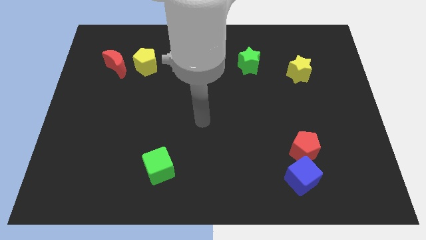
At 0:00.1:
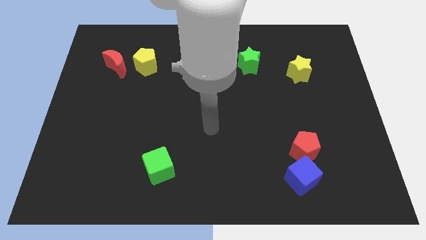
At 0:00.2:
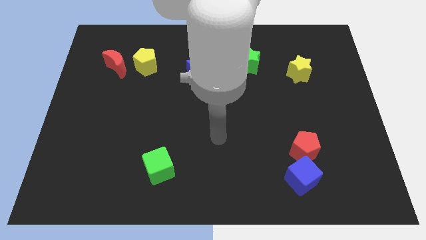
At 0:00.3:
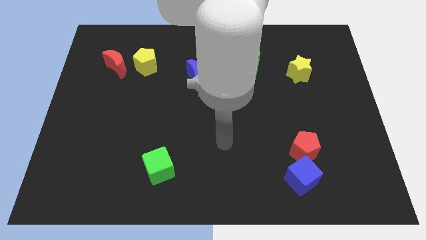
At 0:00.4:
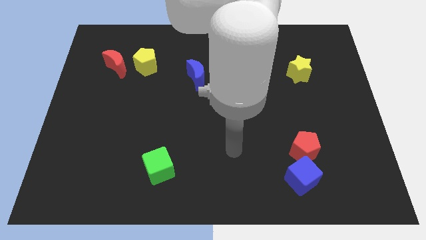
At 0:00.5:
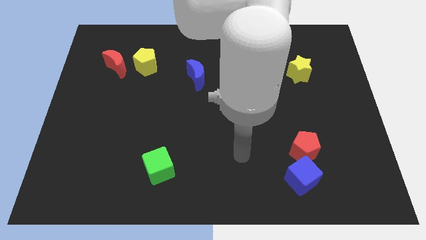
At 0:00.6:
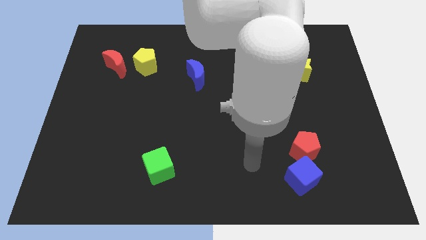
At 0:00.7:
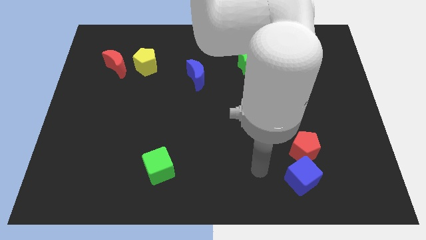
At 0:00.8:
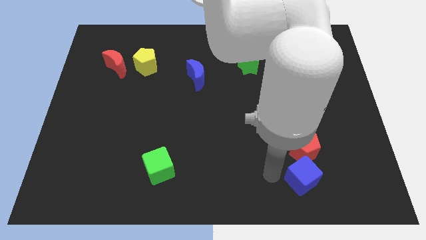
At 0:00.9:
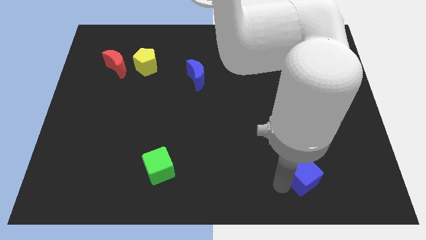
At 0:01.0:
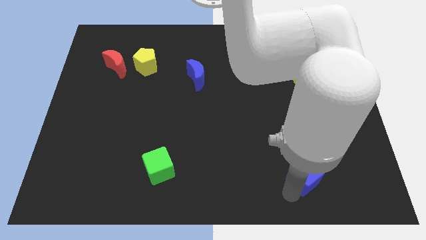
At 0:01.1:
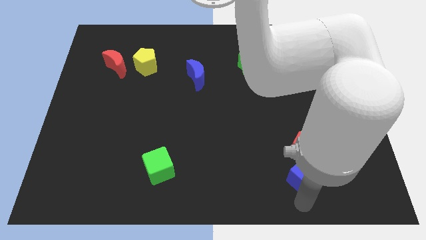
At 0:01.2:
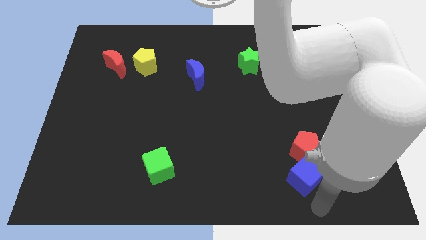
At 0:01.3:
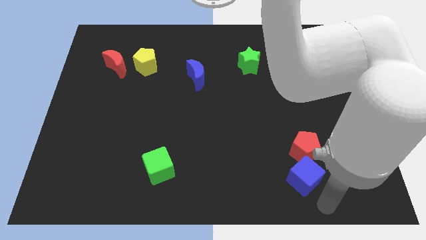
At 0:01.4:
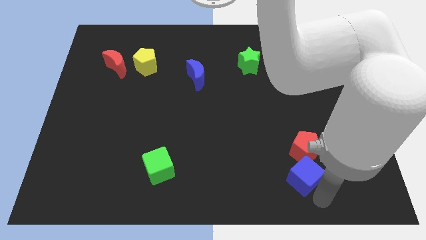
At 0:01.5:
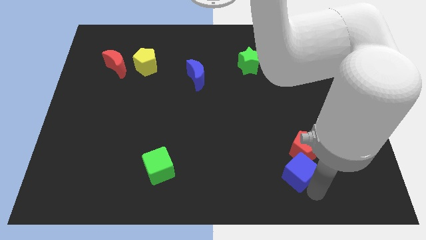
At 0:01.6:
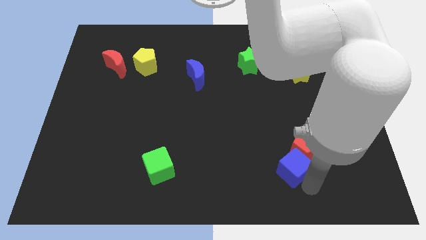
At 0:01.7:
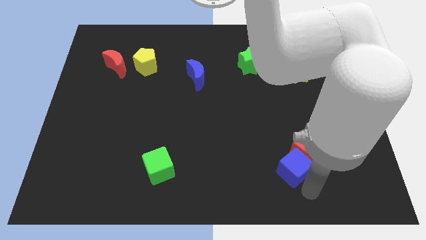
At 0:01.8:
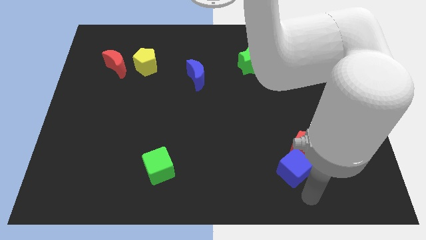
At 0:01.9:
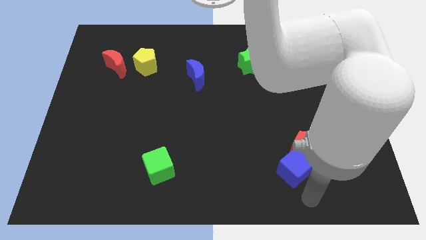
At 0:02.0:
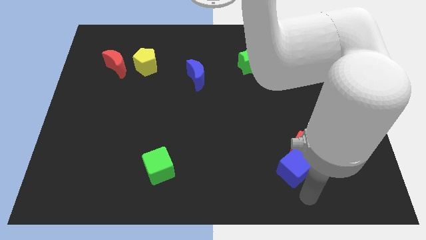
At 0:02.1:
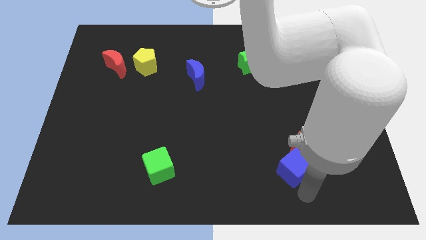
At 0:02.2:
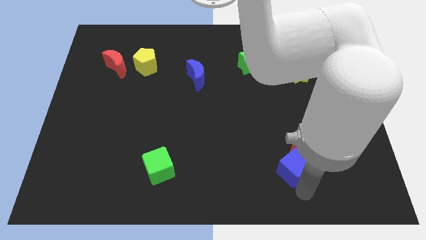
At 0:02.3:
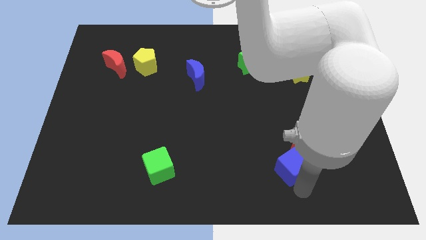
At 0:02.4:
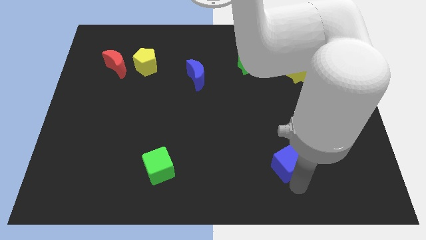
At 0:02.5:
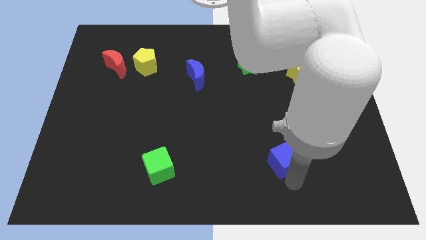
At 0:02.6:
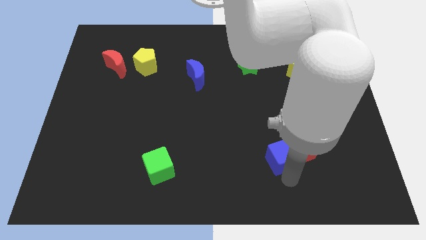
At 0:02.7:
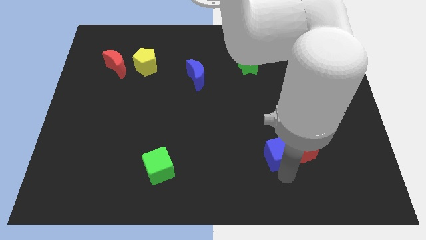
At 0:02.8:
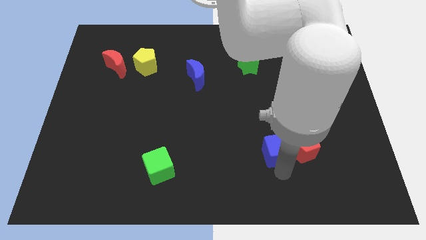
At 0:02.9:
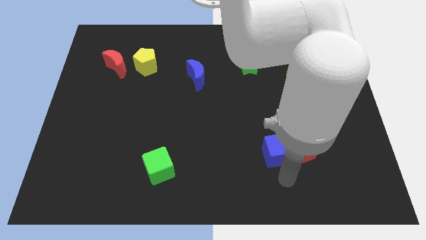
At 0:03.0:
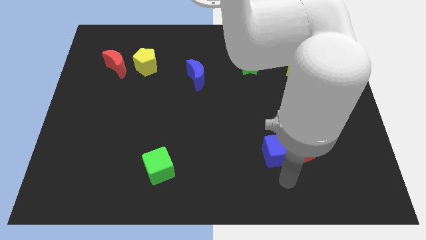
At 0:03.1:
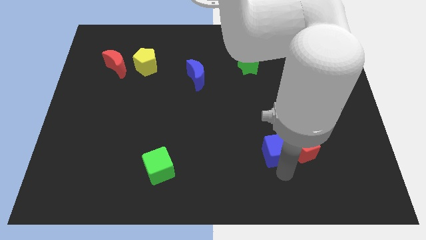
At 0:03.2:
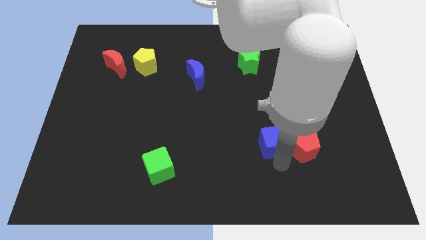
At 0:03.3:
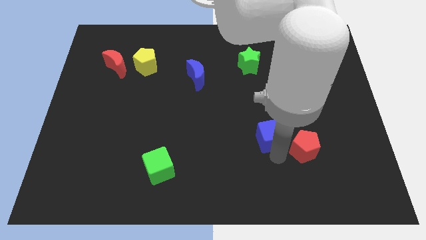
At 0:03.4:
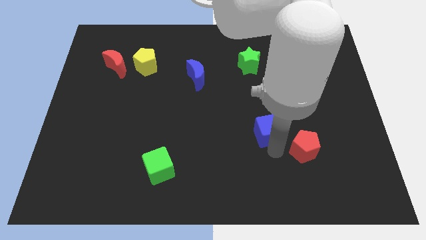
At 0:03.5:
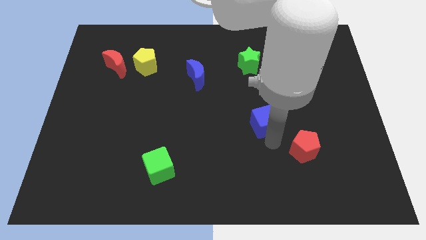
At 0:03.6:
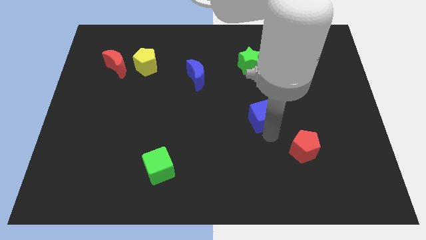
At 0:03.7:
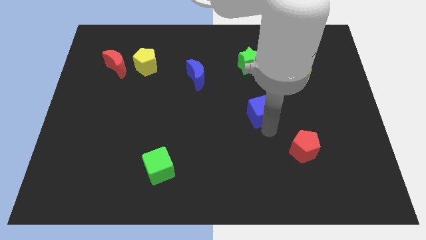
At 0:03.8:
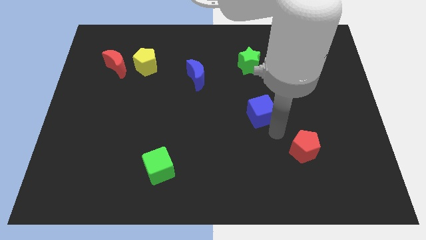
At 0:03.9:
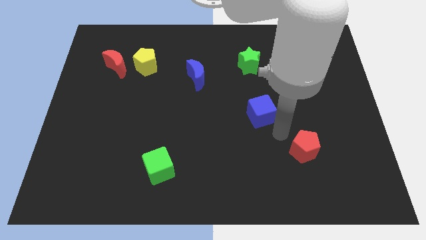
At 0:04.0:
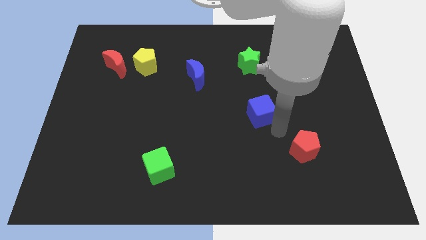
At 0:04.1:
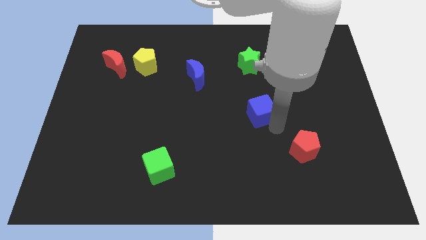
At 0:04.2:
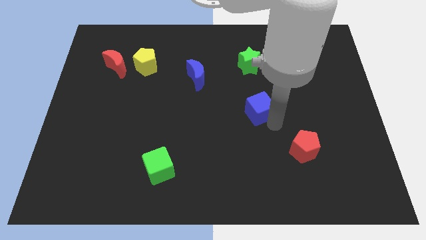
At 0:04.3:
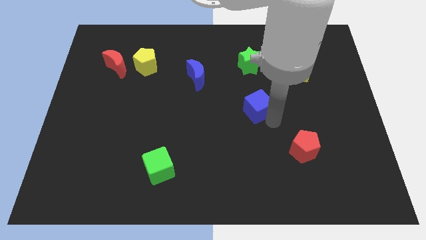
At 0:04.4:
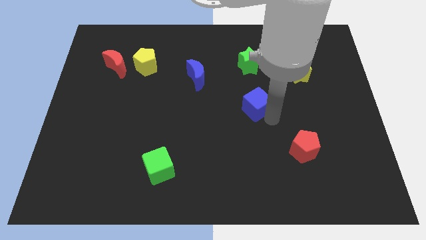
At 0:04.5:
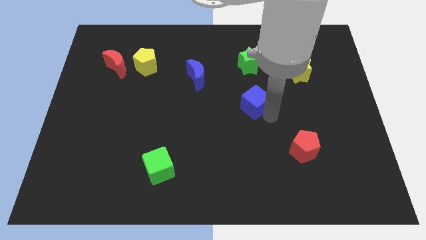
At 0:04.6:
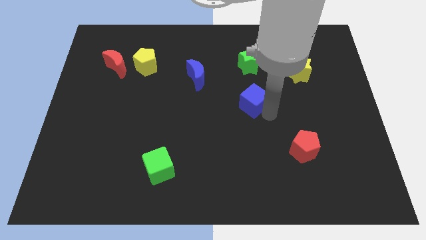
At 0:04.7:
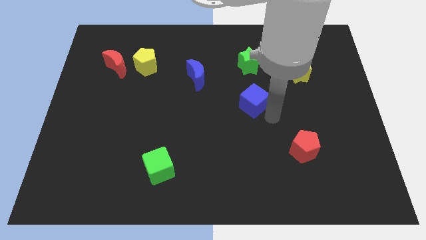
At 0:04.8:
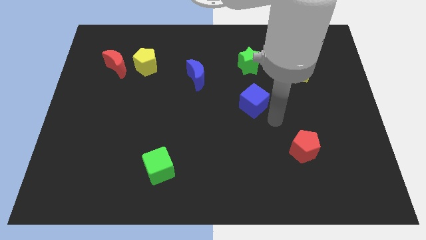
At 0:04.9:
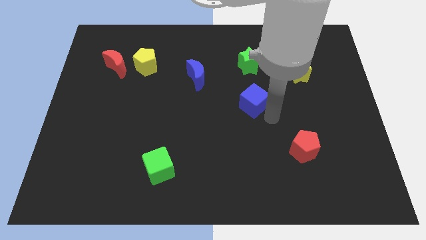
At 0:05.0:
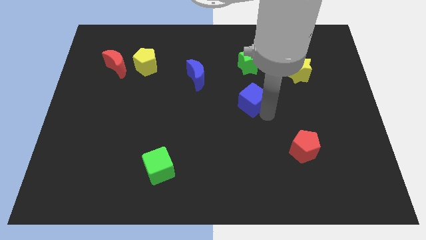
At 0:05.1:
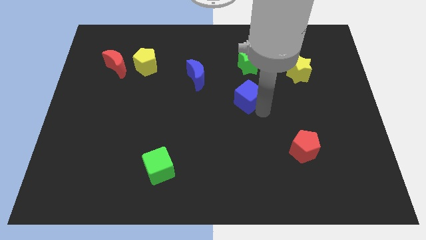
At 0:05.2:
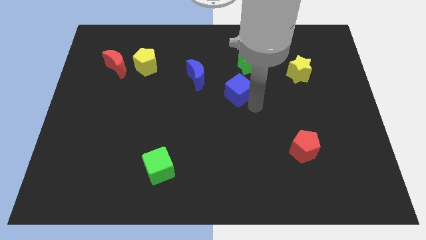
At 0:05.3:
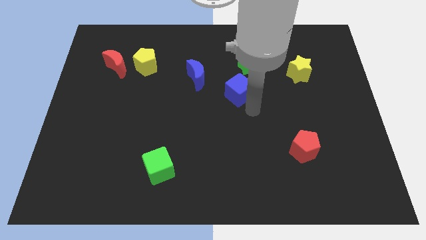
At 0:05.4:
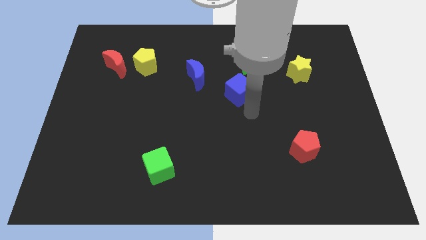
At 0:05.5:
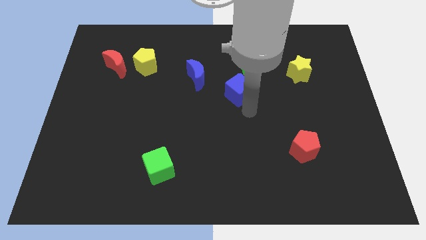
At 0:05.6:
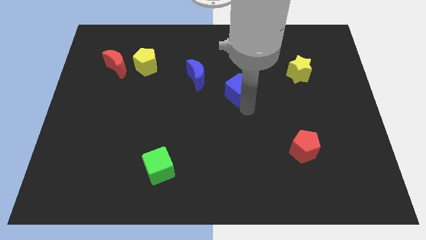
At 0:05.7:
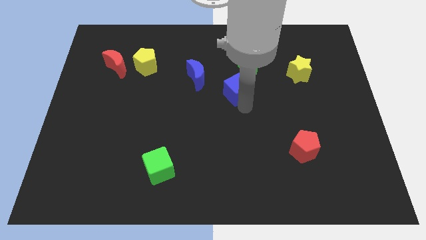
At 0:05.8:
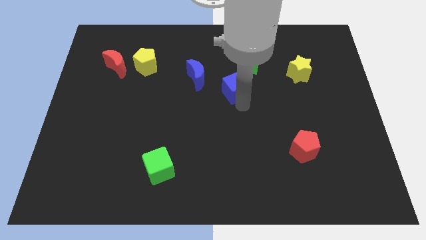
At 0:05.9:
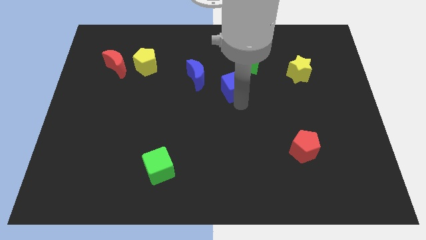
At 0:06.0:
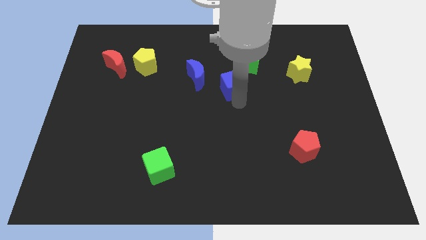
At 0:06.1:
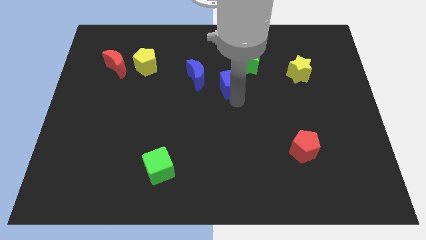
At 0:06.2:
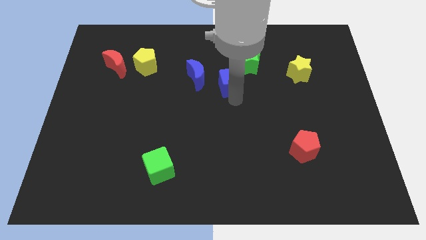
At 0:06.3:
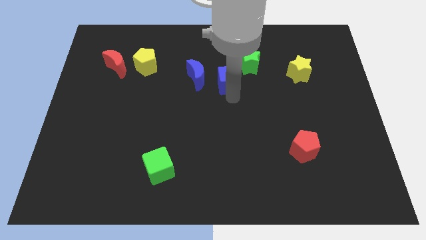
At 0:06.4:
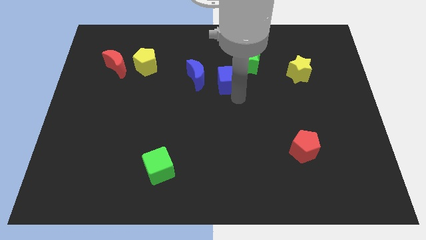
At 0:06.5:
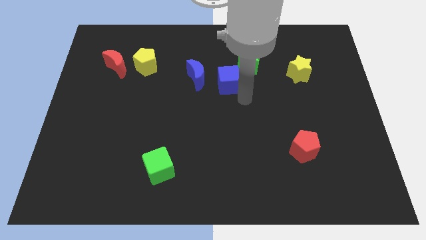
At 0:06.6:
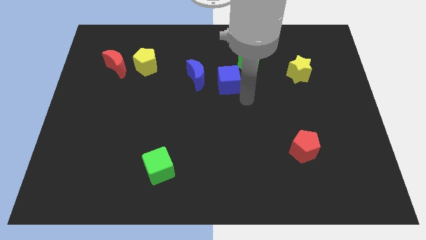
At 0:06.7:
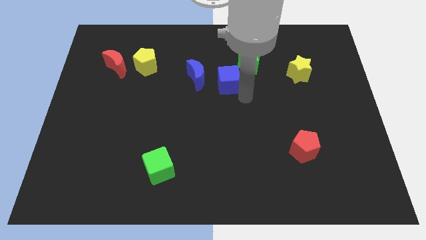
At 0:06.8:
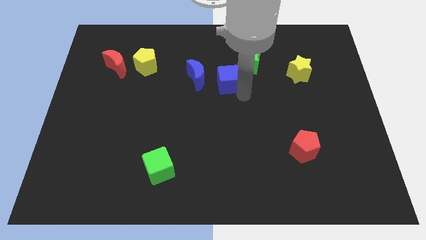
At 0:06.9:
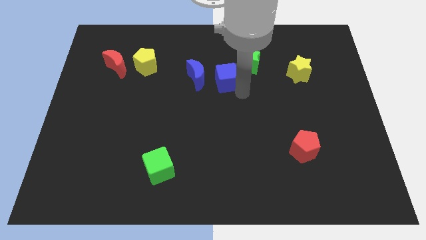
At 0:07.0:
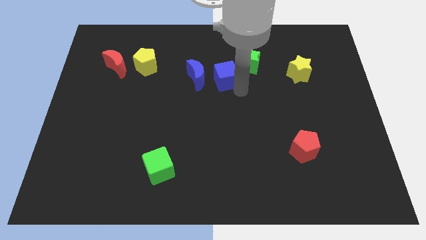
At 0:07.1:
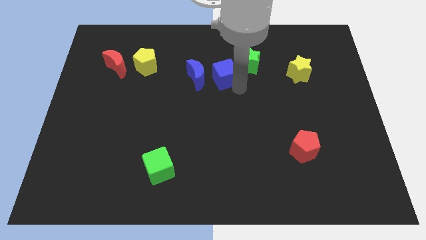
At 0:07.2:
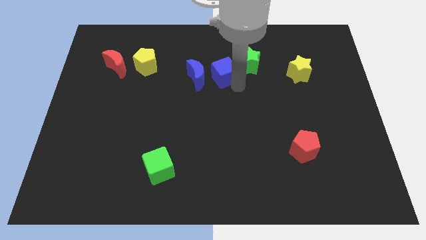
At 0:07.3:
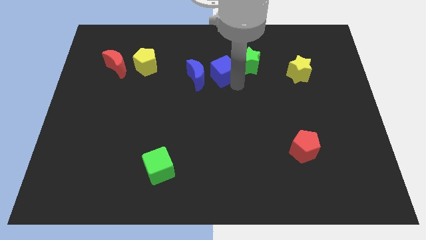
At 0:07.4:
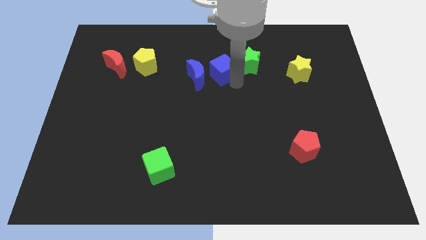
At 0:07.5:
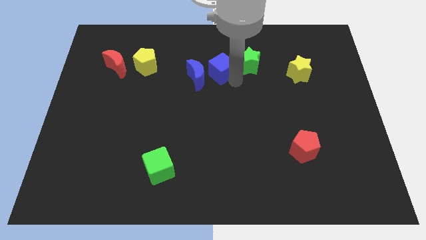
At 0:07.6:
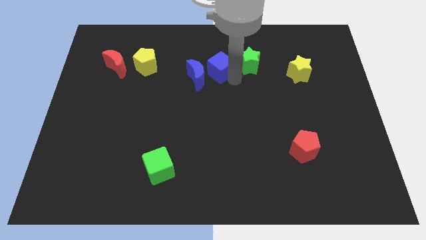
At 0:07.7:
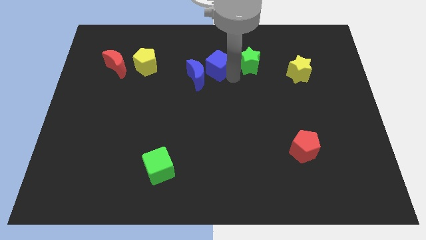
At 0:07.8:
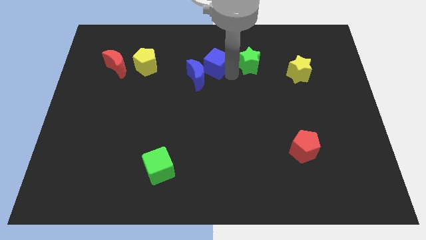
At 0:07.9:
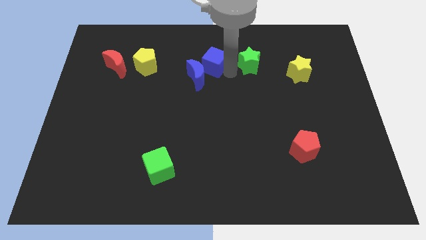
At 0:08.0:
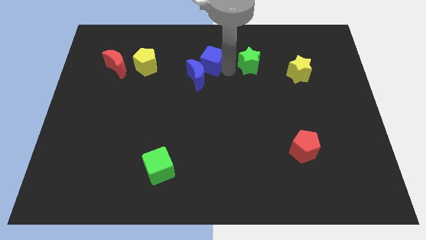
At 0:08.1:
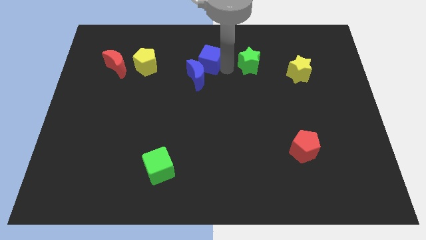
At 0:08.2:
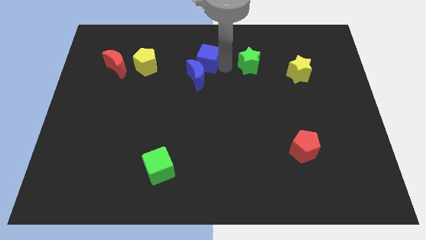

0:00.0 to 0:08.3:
move the blue cube just right of the yellow pentagon
